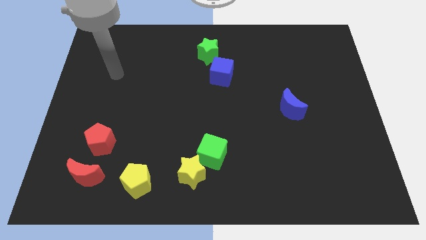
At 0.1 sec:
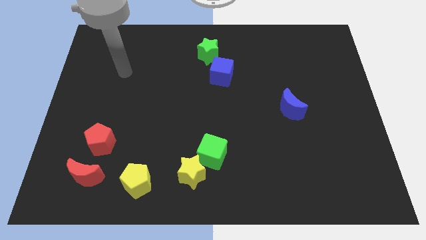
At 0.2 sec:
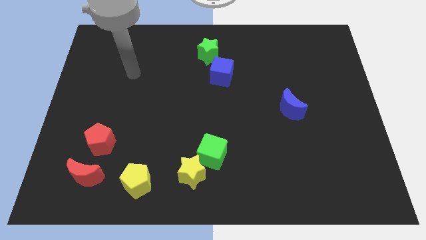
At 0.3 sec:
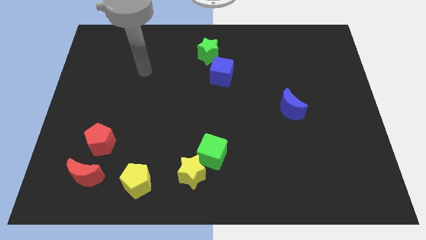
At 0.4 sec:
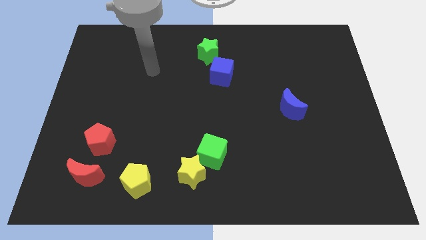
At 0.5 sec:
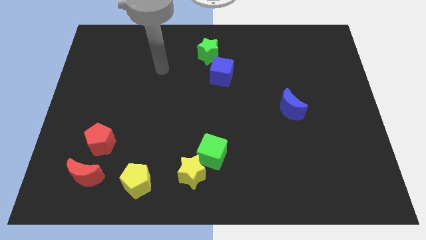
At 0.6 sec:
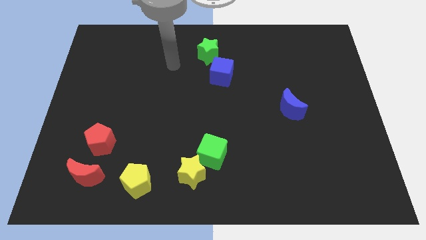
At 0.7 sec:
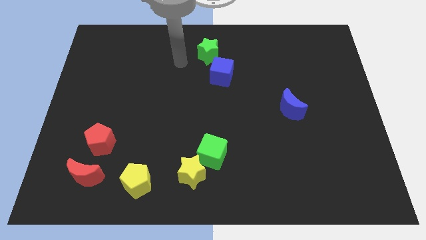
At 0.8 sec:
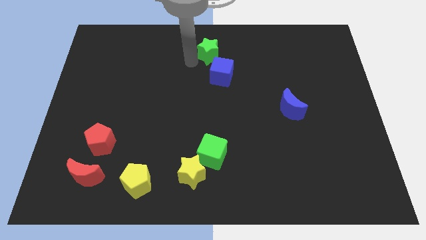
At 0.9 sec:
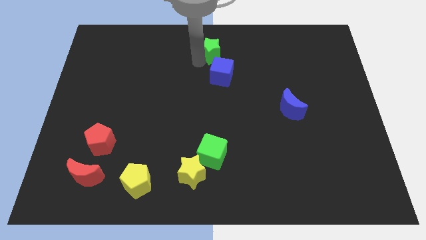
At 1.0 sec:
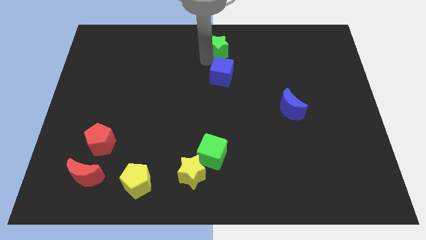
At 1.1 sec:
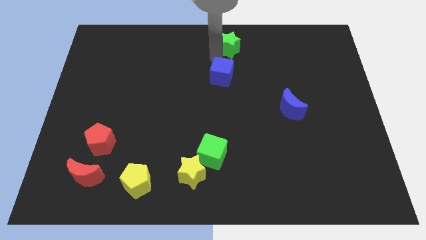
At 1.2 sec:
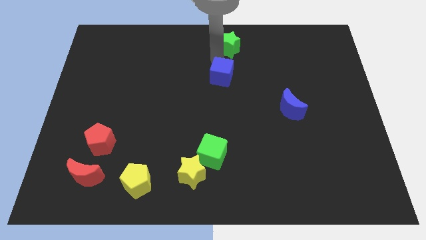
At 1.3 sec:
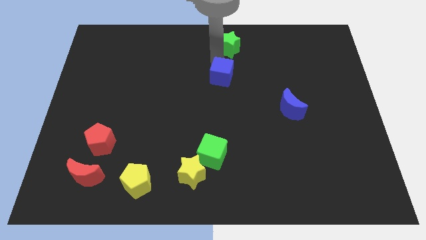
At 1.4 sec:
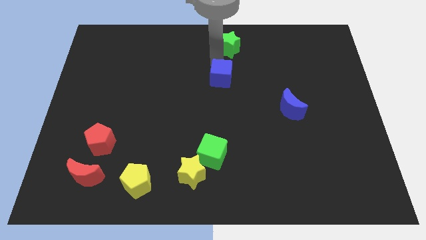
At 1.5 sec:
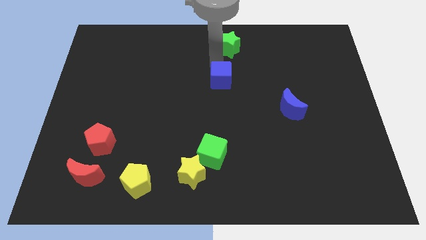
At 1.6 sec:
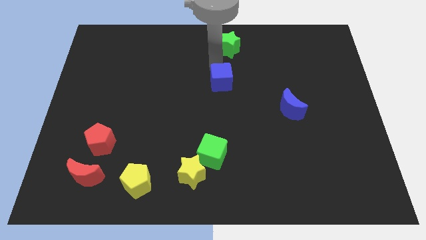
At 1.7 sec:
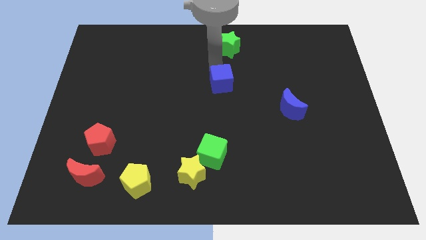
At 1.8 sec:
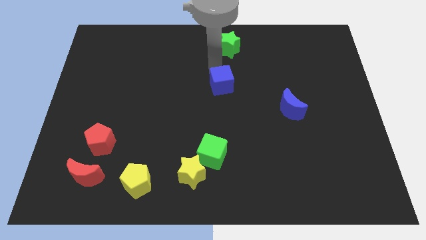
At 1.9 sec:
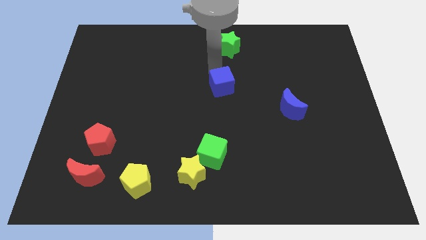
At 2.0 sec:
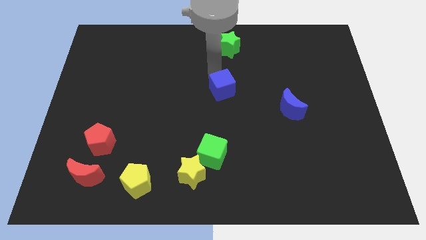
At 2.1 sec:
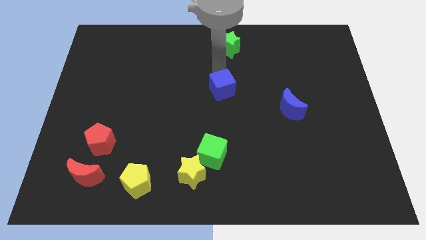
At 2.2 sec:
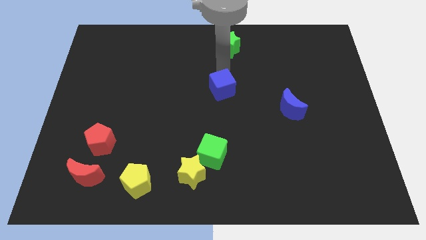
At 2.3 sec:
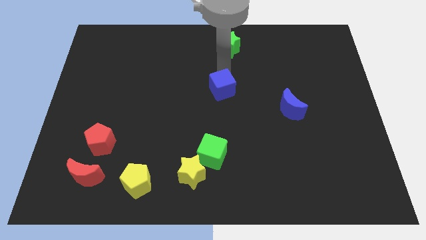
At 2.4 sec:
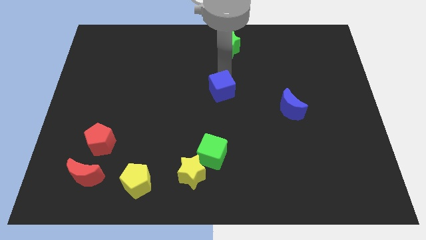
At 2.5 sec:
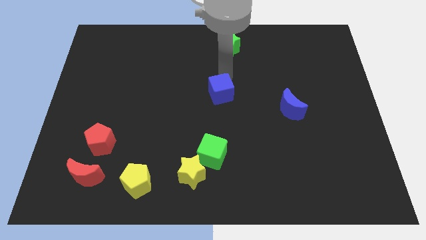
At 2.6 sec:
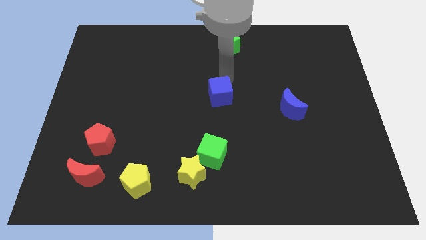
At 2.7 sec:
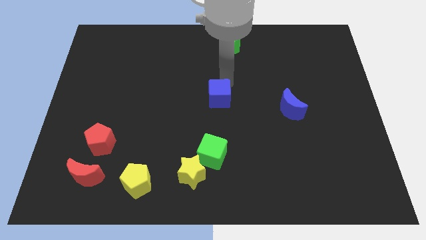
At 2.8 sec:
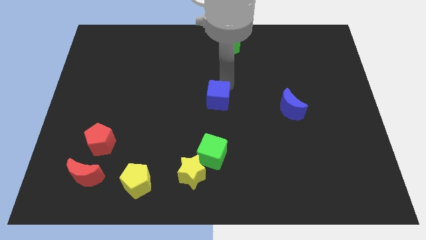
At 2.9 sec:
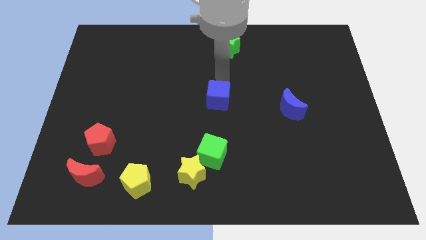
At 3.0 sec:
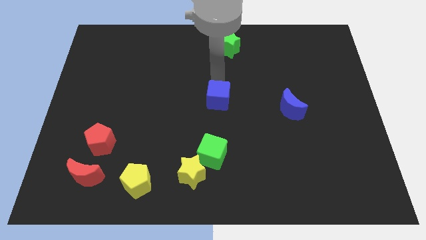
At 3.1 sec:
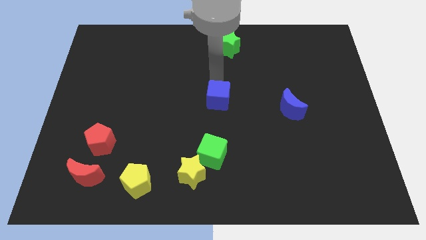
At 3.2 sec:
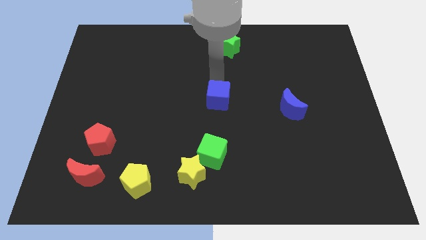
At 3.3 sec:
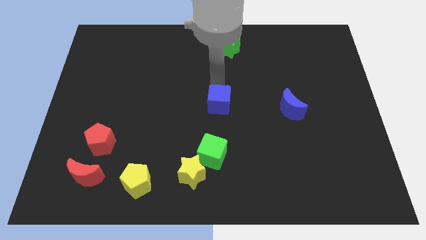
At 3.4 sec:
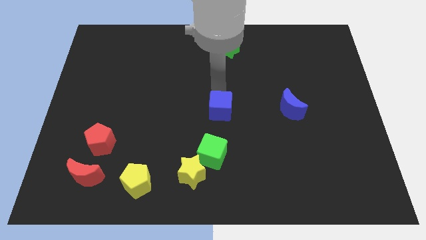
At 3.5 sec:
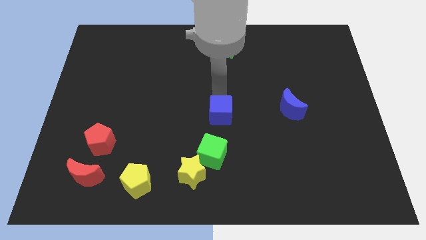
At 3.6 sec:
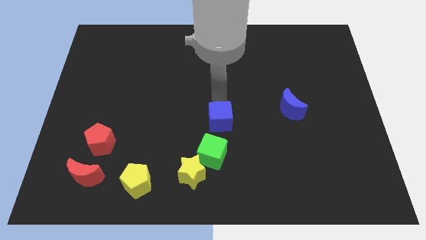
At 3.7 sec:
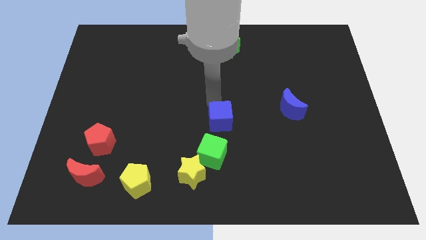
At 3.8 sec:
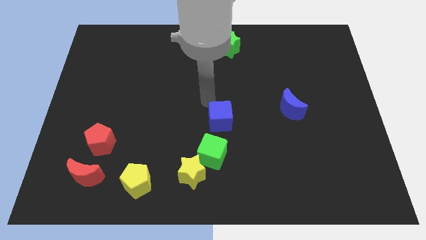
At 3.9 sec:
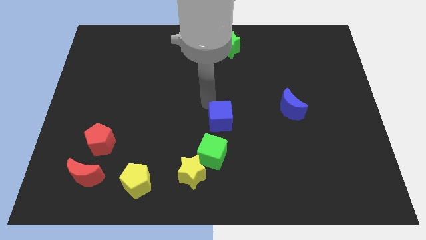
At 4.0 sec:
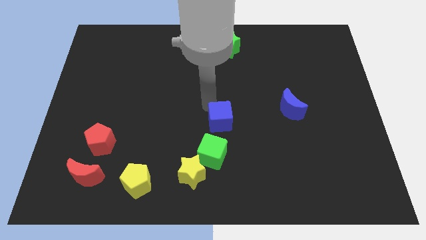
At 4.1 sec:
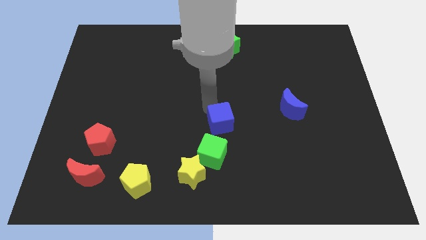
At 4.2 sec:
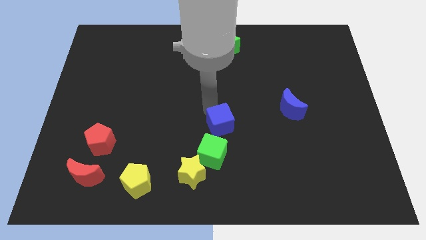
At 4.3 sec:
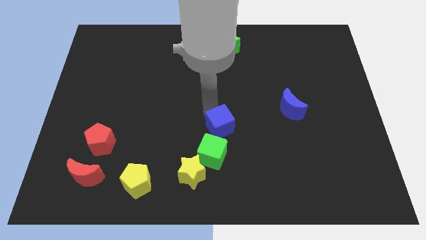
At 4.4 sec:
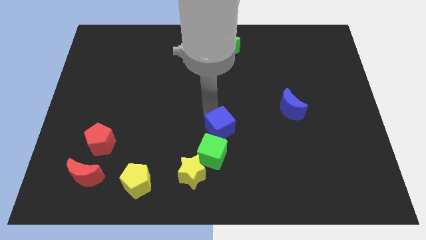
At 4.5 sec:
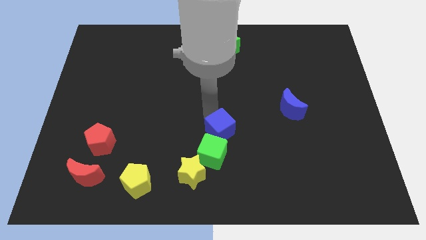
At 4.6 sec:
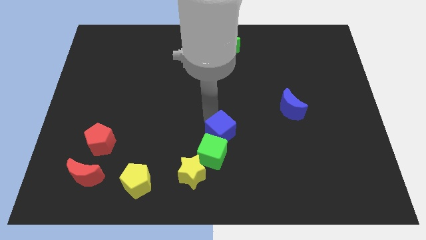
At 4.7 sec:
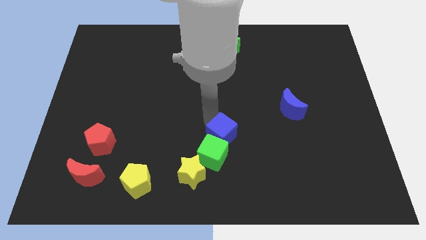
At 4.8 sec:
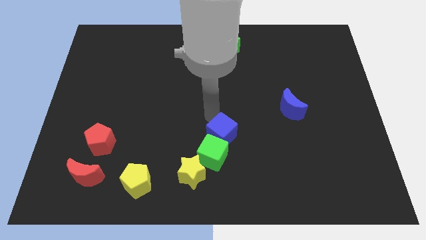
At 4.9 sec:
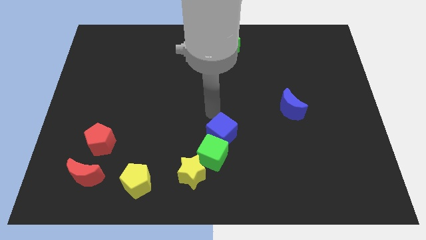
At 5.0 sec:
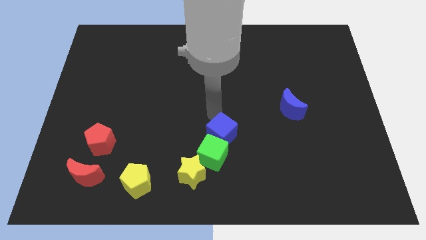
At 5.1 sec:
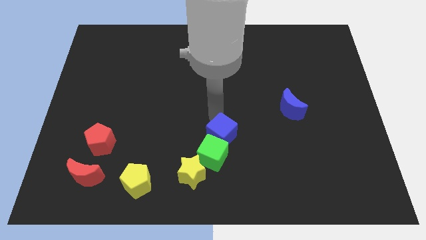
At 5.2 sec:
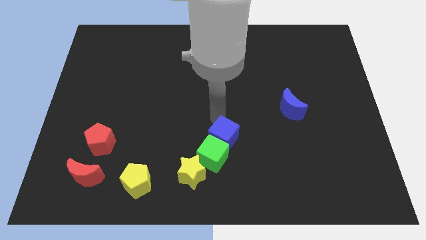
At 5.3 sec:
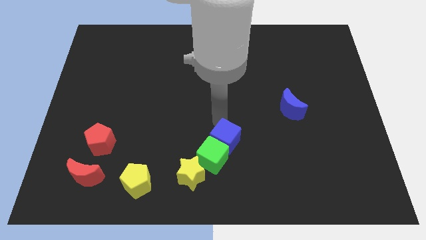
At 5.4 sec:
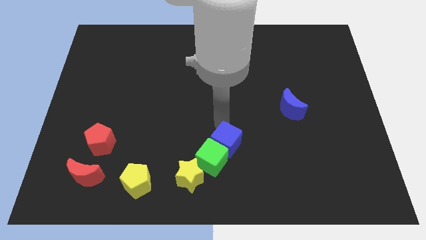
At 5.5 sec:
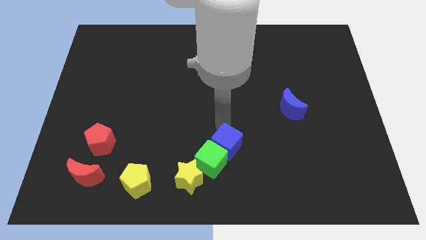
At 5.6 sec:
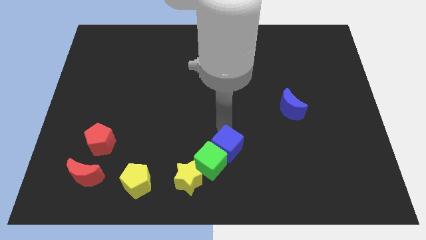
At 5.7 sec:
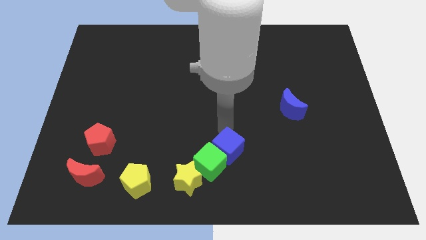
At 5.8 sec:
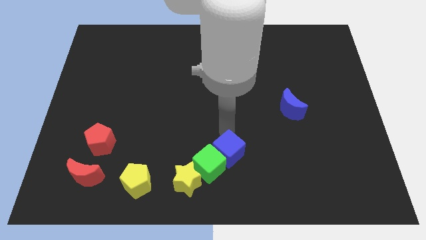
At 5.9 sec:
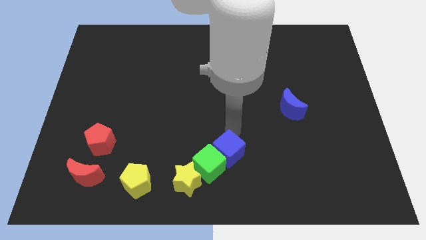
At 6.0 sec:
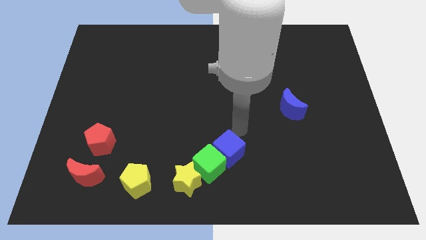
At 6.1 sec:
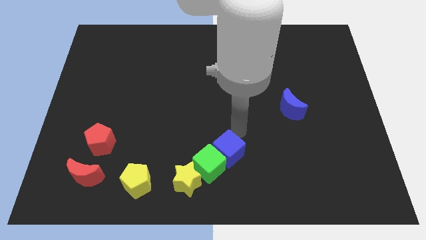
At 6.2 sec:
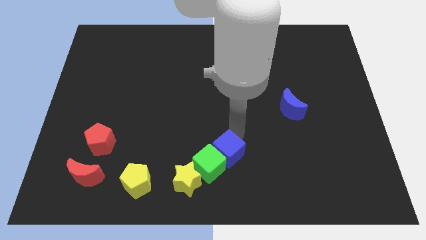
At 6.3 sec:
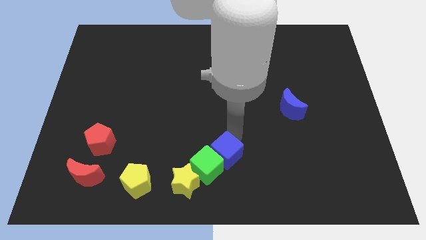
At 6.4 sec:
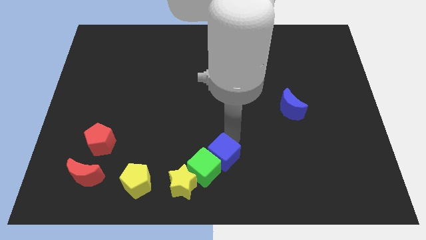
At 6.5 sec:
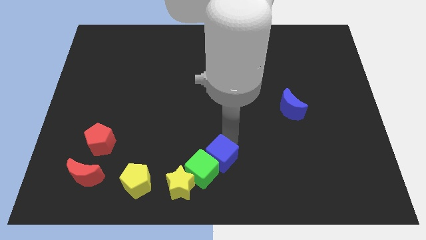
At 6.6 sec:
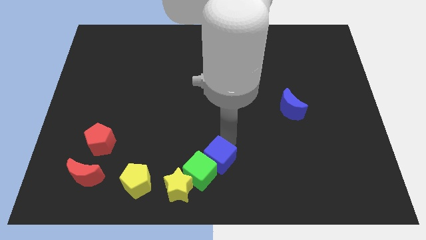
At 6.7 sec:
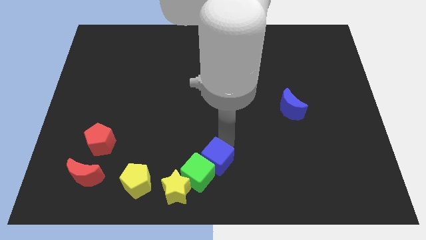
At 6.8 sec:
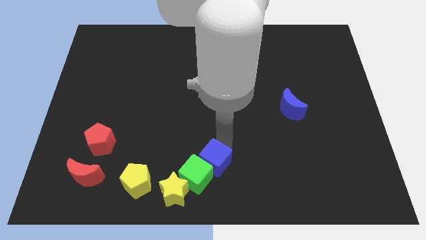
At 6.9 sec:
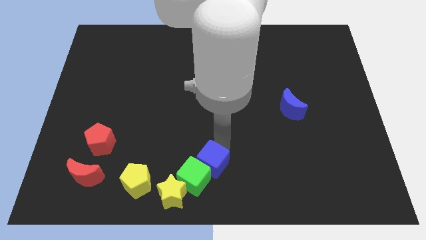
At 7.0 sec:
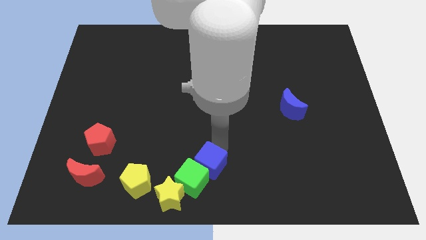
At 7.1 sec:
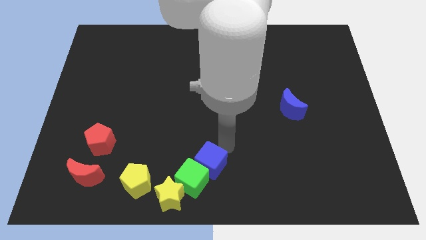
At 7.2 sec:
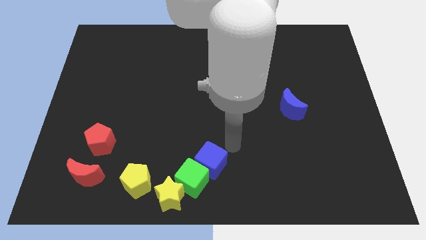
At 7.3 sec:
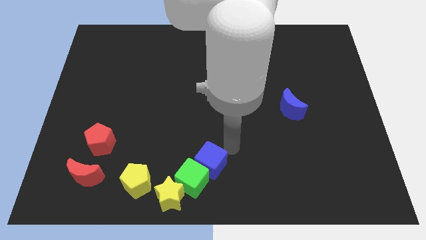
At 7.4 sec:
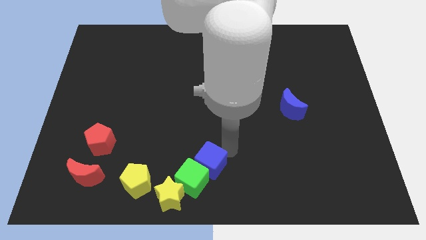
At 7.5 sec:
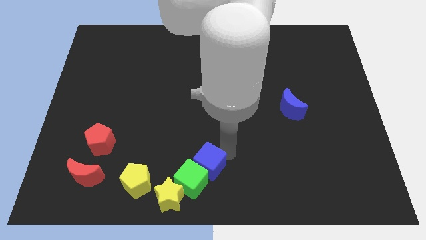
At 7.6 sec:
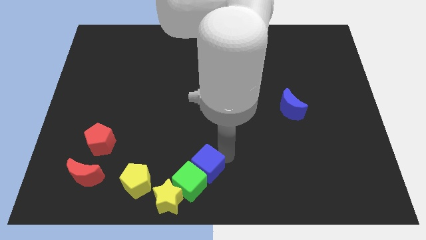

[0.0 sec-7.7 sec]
push the blue cube to the right side of the yellow pentagon
